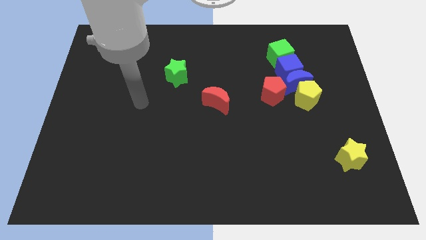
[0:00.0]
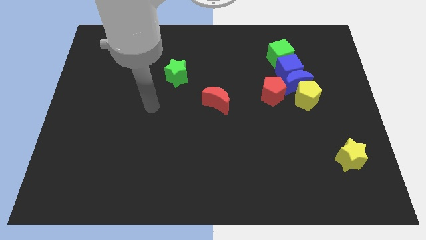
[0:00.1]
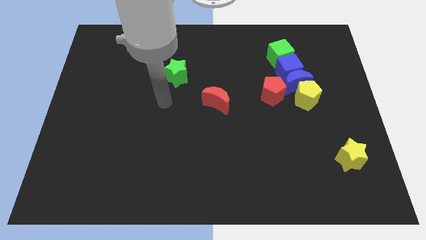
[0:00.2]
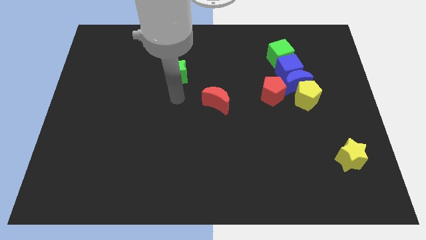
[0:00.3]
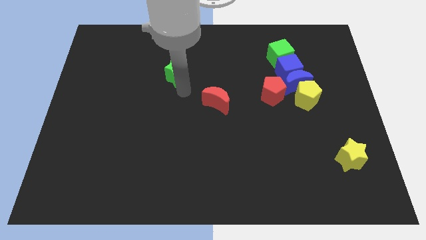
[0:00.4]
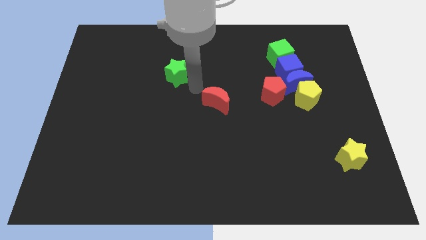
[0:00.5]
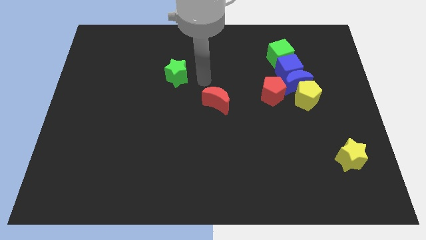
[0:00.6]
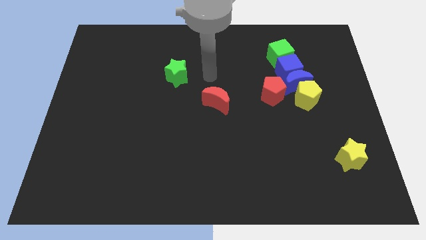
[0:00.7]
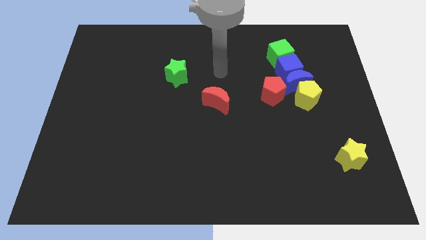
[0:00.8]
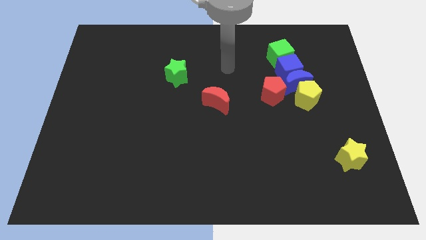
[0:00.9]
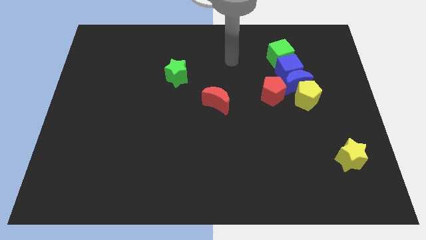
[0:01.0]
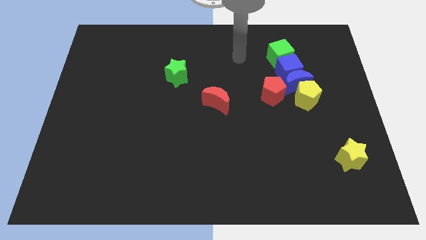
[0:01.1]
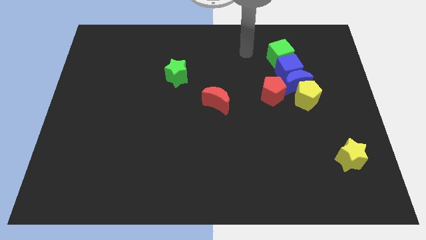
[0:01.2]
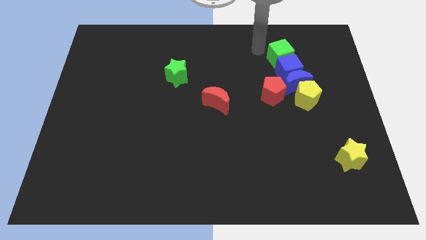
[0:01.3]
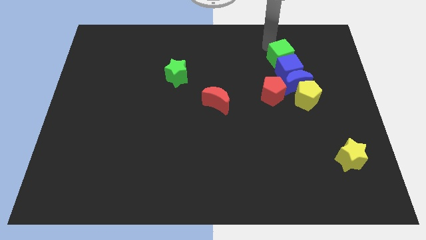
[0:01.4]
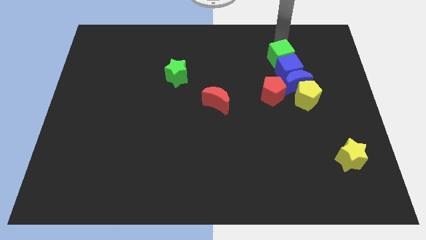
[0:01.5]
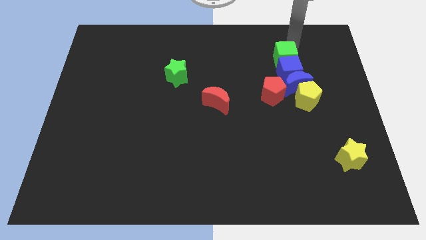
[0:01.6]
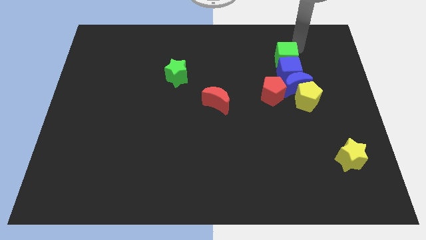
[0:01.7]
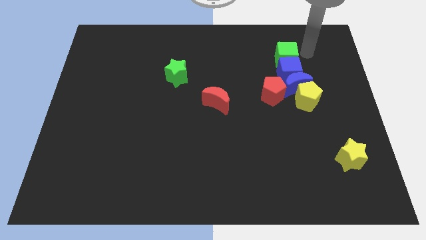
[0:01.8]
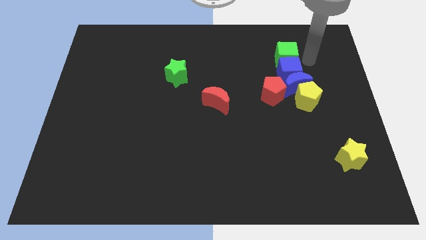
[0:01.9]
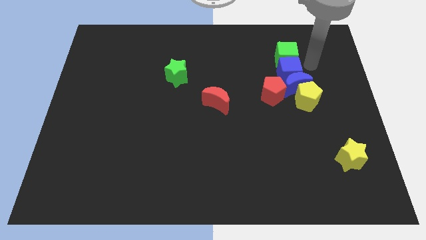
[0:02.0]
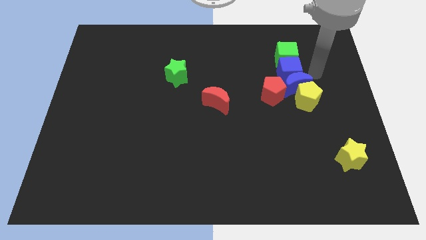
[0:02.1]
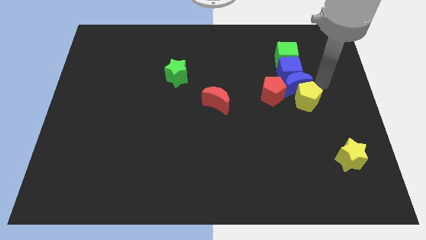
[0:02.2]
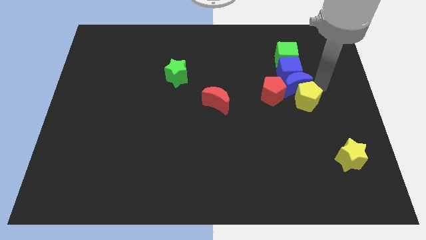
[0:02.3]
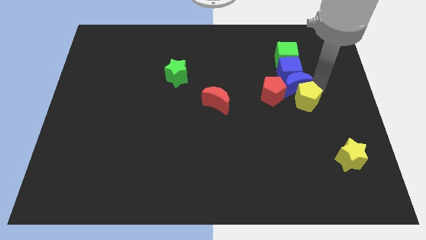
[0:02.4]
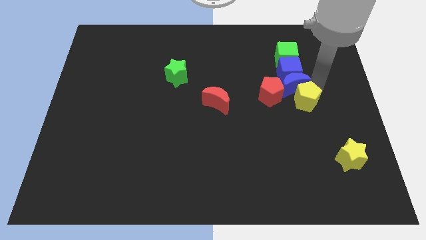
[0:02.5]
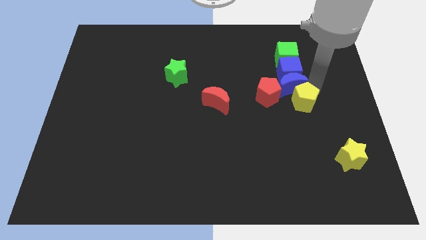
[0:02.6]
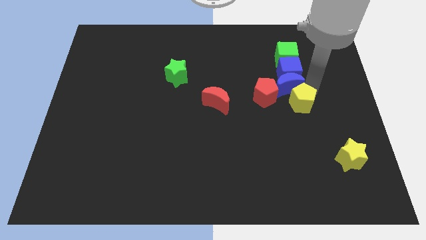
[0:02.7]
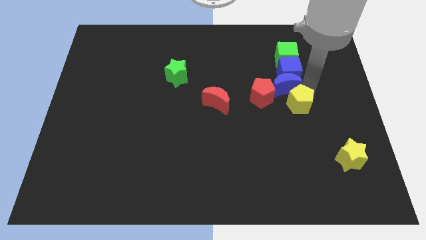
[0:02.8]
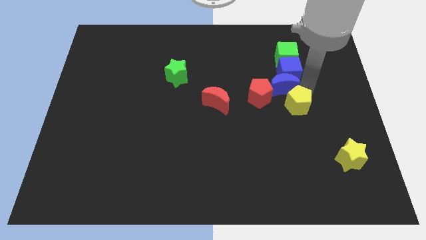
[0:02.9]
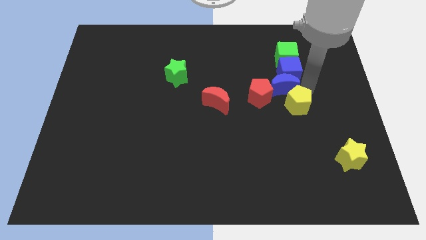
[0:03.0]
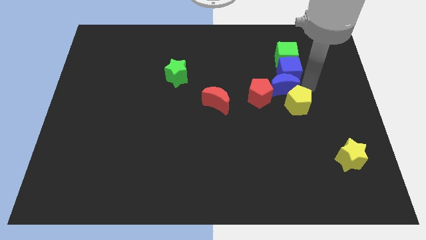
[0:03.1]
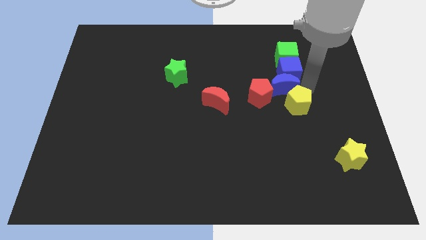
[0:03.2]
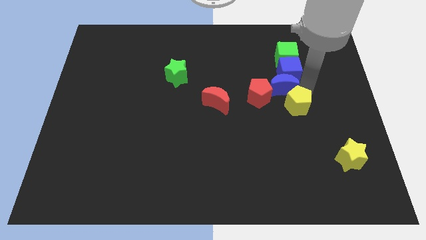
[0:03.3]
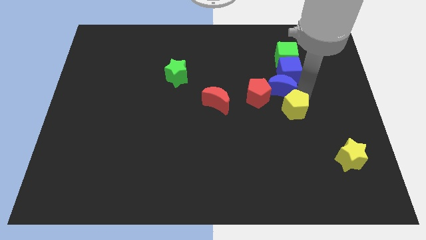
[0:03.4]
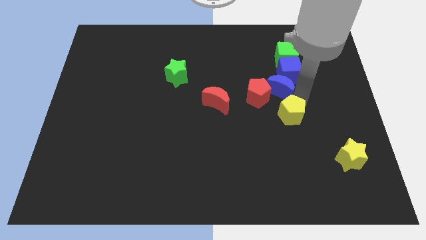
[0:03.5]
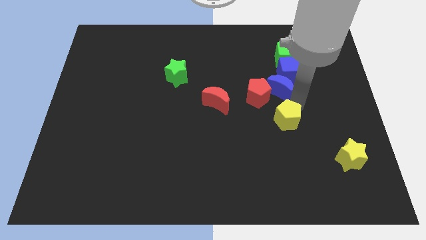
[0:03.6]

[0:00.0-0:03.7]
slightly push the yellow pentagon downwards and then to the left

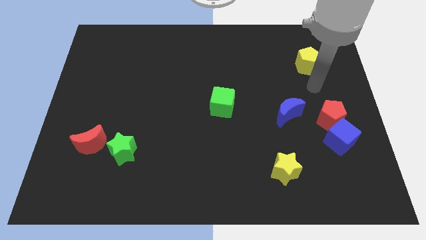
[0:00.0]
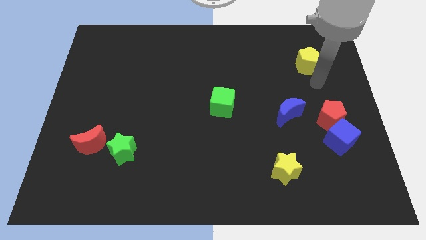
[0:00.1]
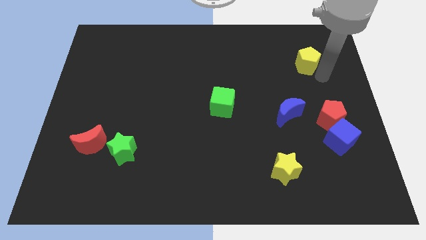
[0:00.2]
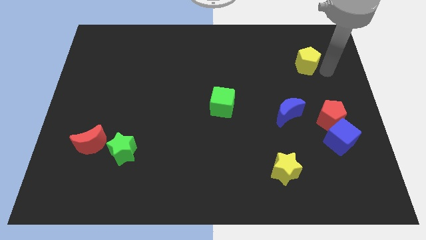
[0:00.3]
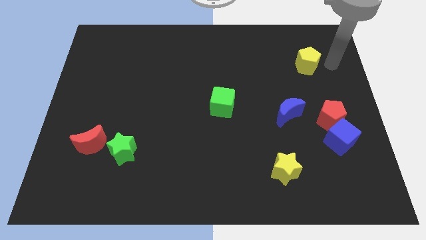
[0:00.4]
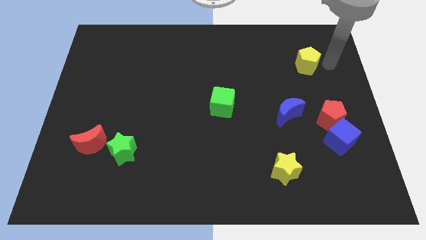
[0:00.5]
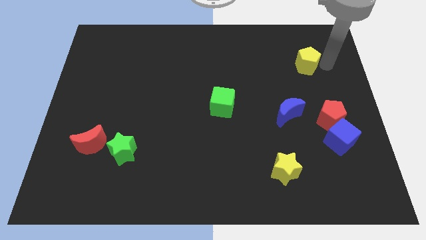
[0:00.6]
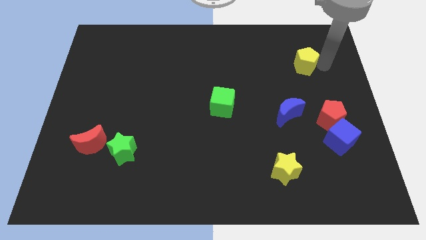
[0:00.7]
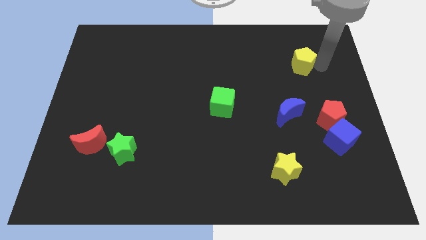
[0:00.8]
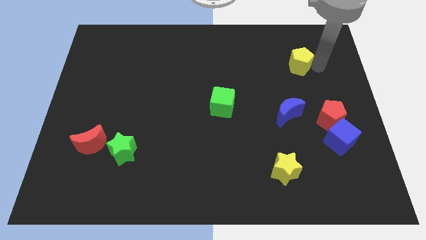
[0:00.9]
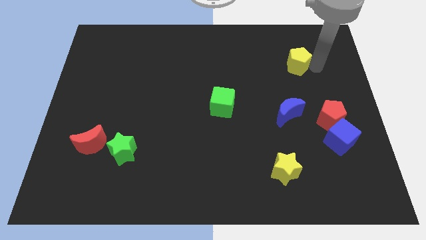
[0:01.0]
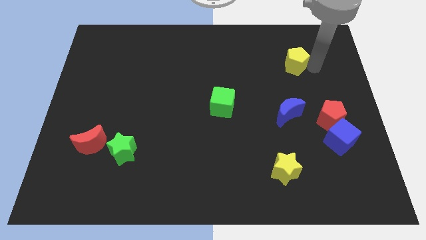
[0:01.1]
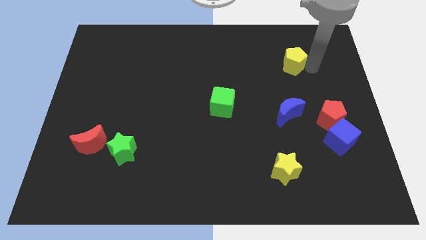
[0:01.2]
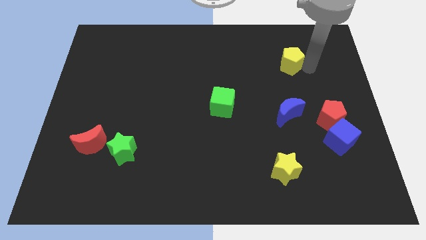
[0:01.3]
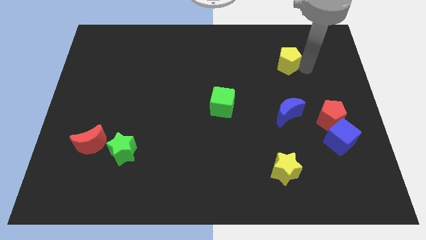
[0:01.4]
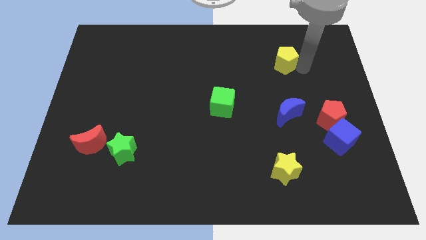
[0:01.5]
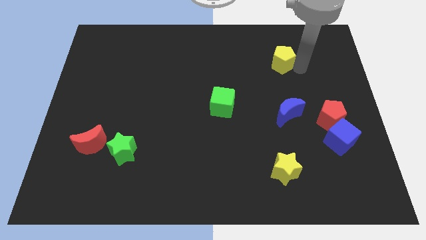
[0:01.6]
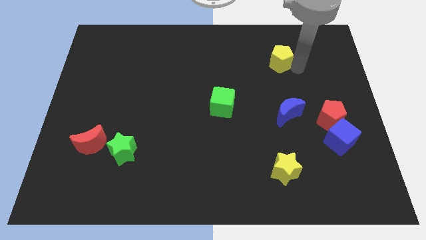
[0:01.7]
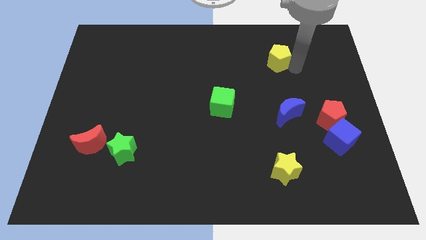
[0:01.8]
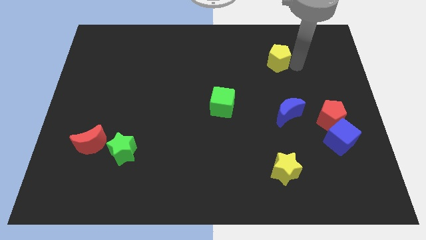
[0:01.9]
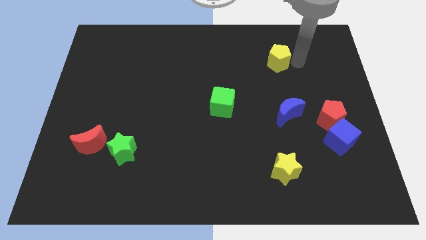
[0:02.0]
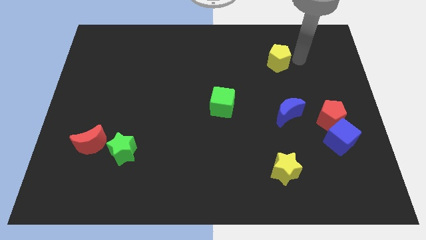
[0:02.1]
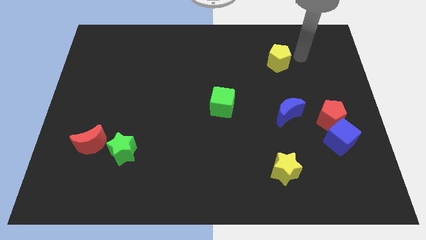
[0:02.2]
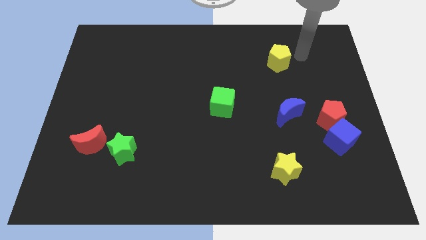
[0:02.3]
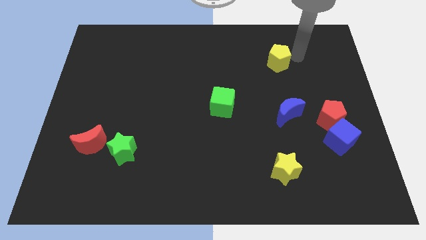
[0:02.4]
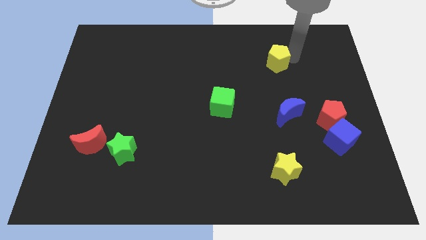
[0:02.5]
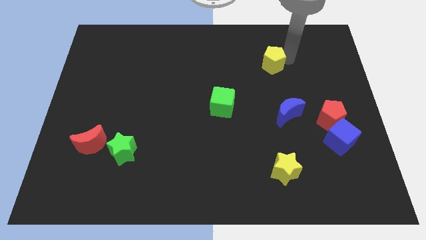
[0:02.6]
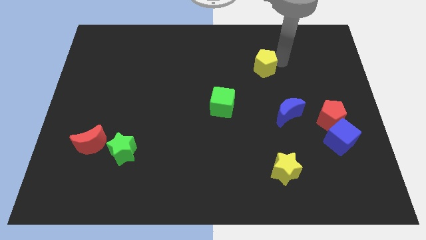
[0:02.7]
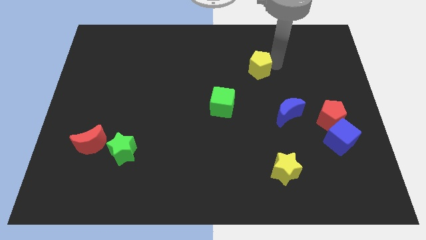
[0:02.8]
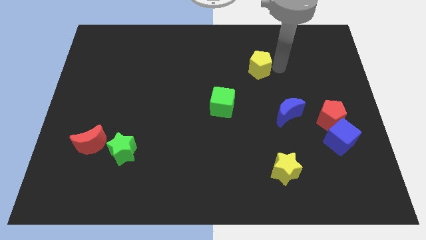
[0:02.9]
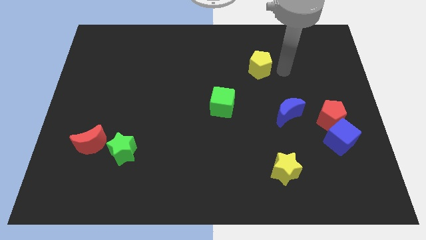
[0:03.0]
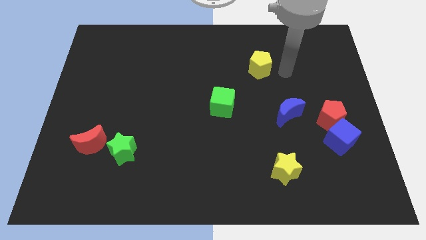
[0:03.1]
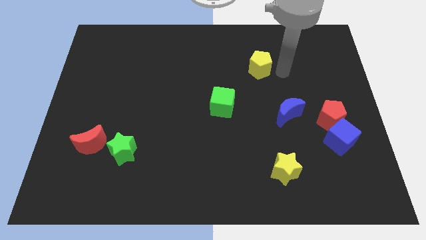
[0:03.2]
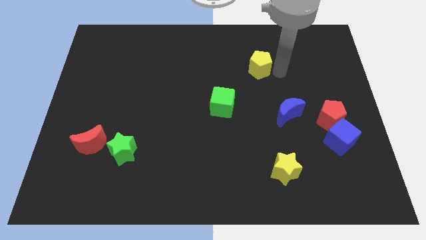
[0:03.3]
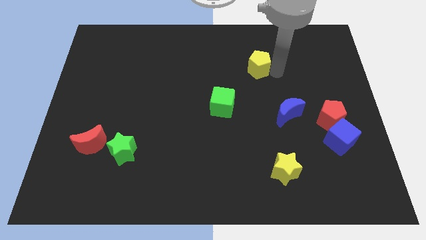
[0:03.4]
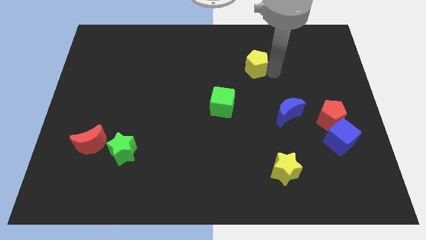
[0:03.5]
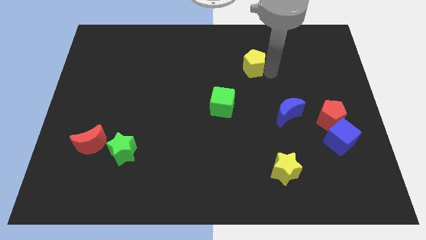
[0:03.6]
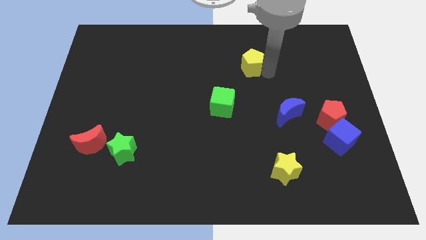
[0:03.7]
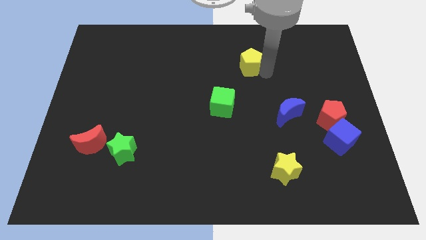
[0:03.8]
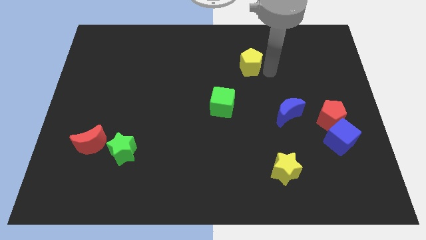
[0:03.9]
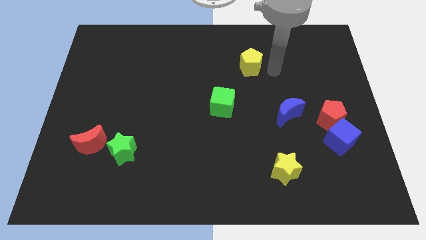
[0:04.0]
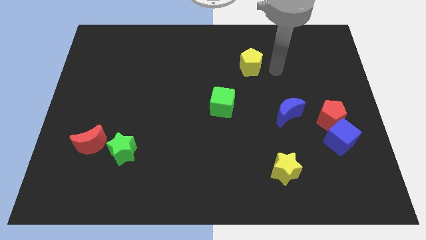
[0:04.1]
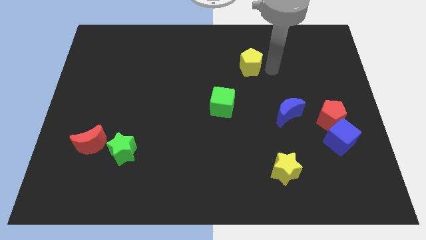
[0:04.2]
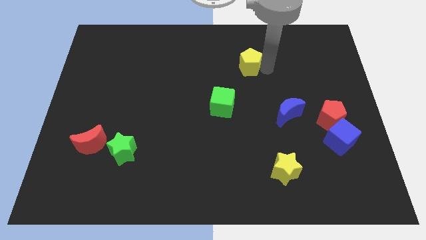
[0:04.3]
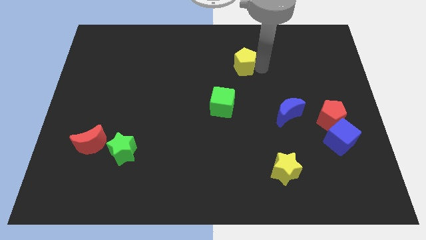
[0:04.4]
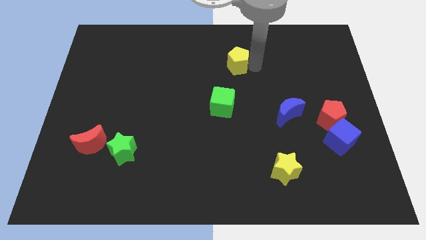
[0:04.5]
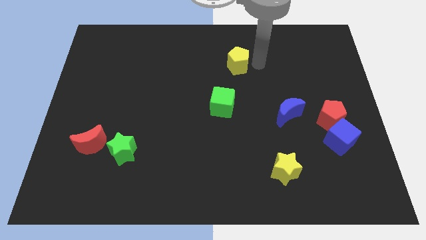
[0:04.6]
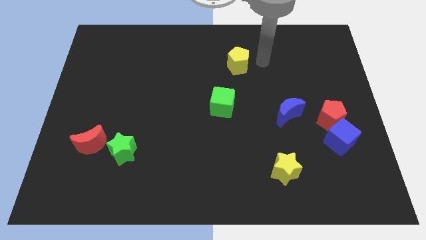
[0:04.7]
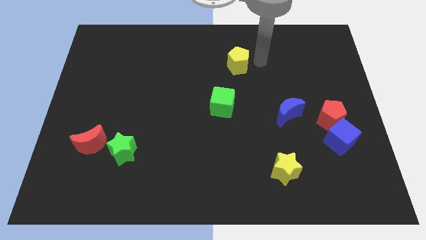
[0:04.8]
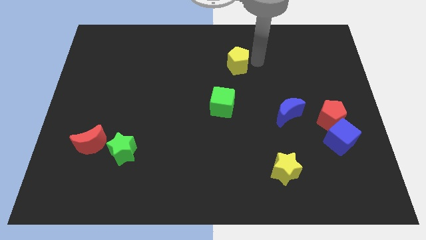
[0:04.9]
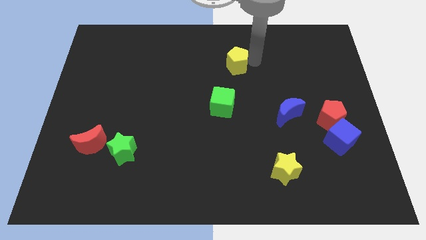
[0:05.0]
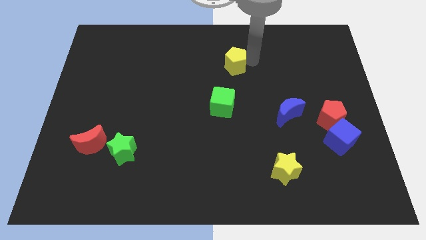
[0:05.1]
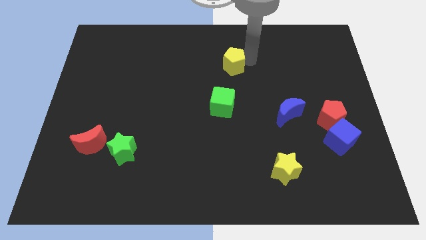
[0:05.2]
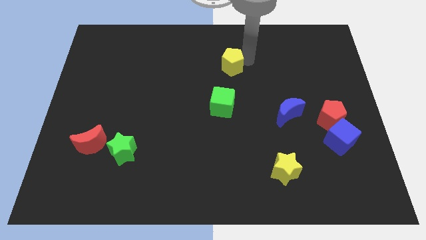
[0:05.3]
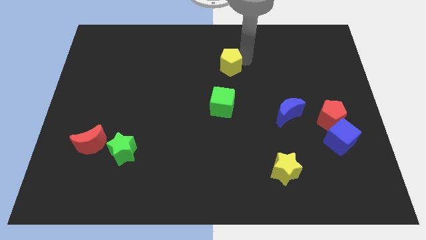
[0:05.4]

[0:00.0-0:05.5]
push the yellow pentagon to the left
